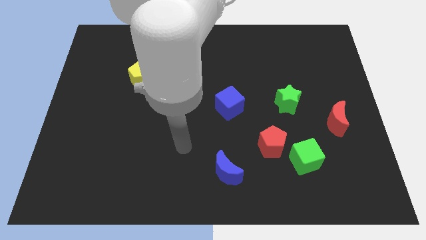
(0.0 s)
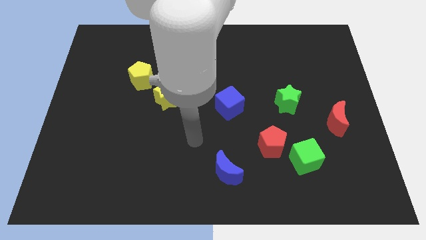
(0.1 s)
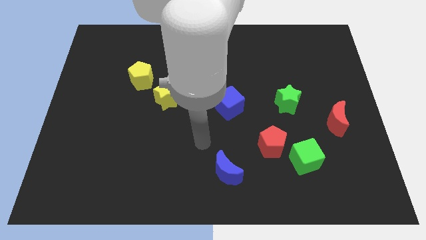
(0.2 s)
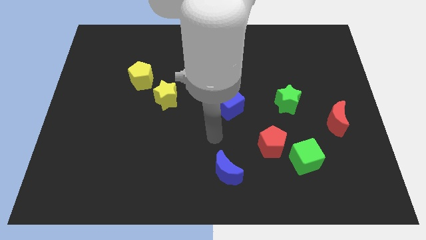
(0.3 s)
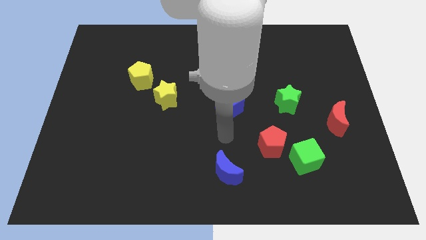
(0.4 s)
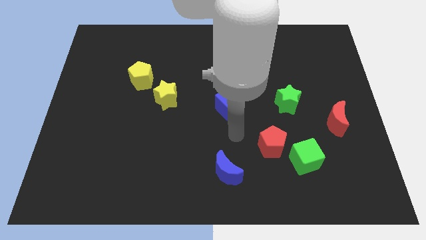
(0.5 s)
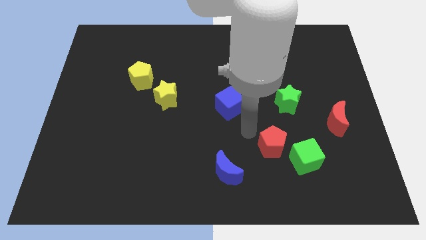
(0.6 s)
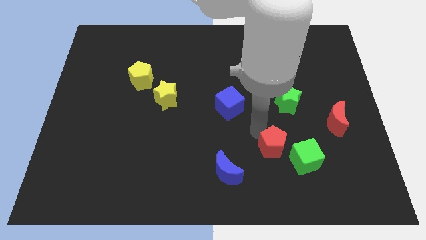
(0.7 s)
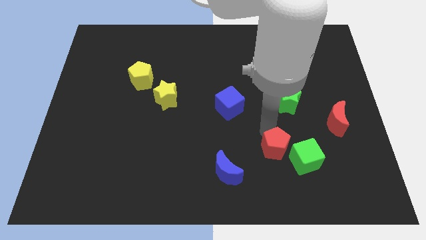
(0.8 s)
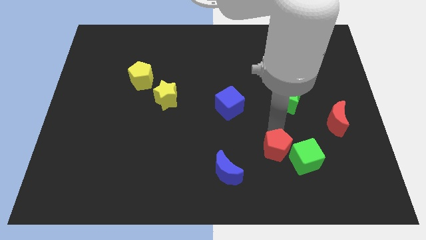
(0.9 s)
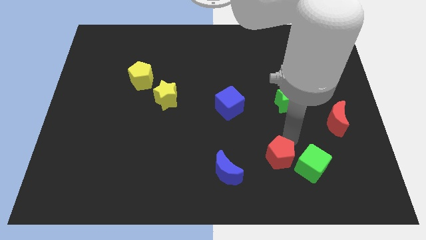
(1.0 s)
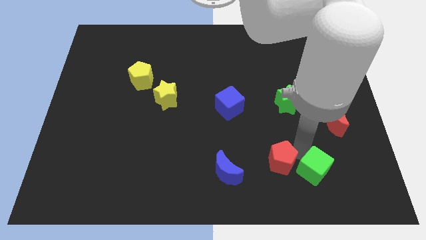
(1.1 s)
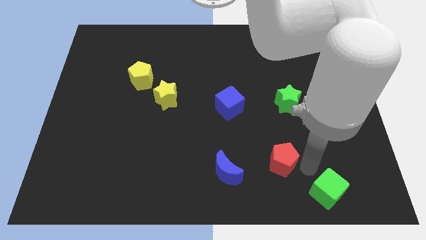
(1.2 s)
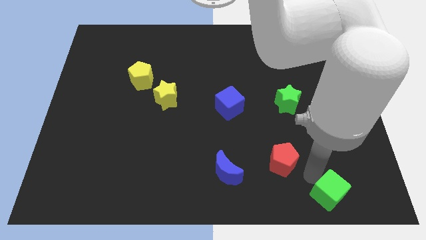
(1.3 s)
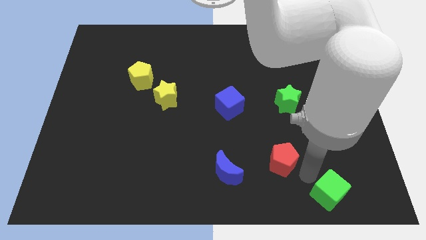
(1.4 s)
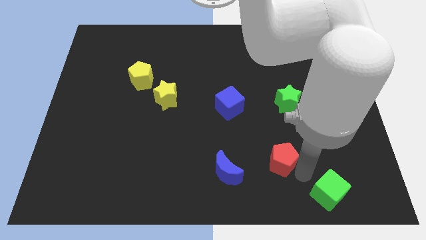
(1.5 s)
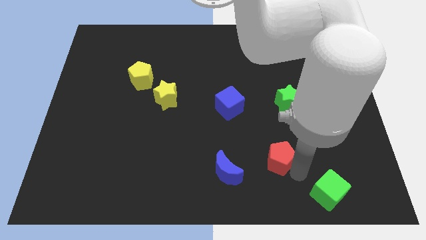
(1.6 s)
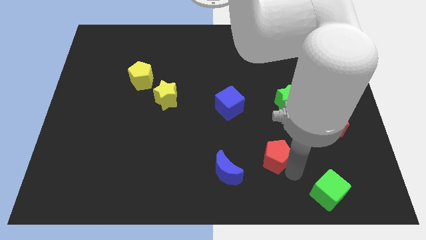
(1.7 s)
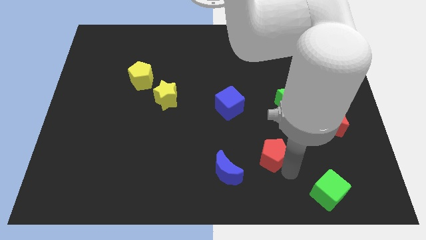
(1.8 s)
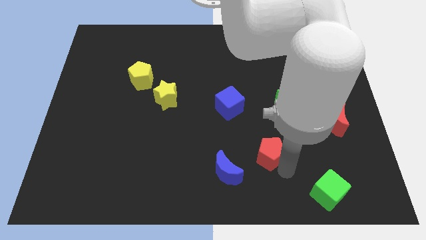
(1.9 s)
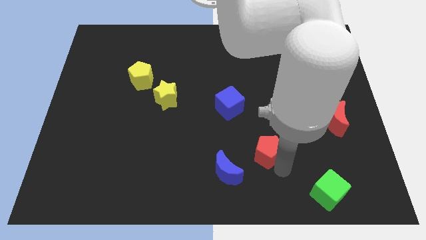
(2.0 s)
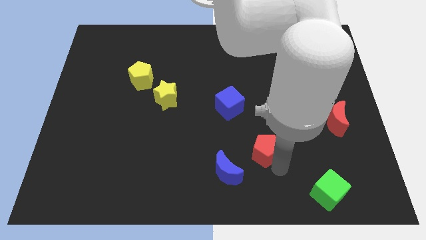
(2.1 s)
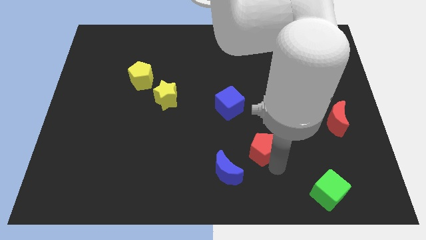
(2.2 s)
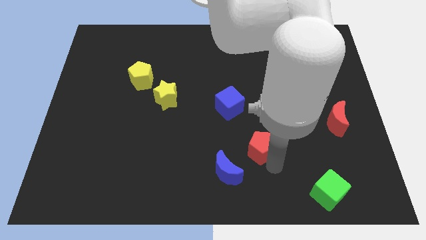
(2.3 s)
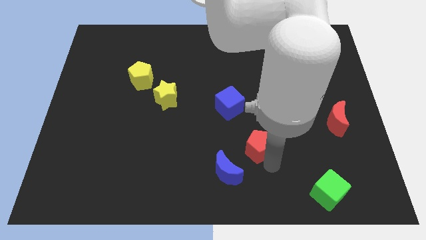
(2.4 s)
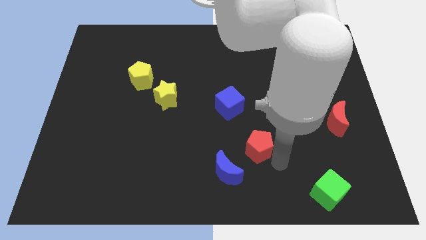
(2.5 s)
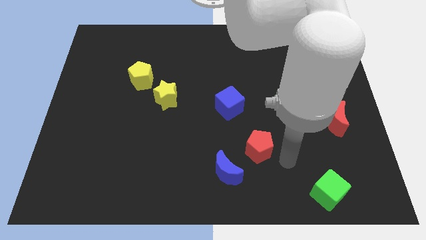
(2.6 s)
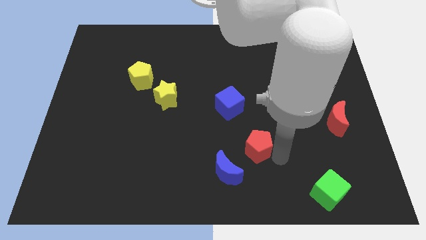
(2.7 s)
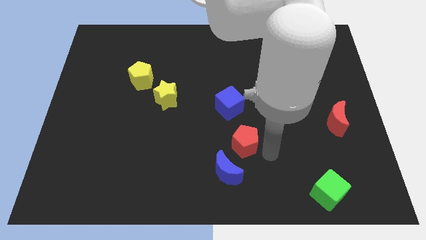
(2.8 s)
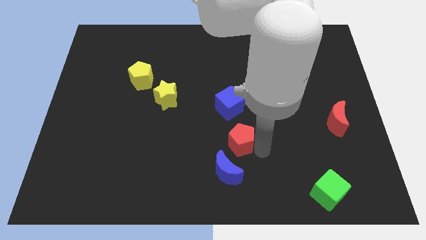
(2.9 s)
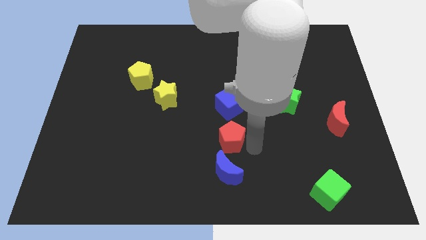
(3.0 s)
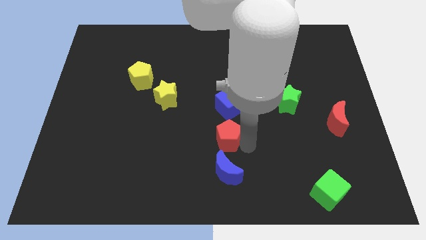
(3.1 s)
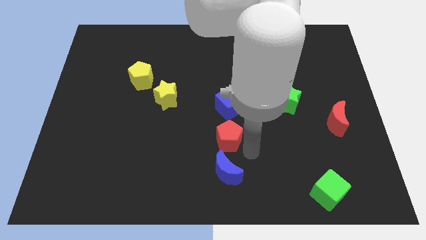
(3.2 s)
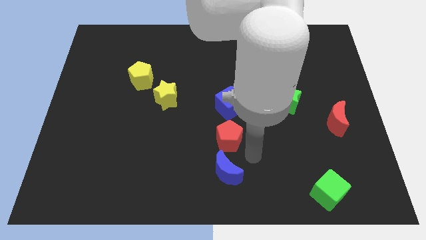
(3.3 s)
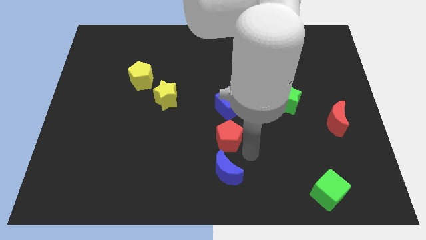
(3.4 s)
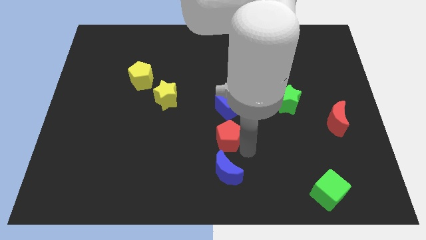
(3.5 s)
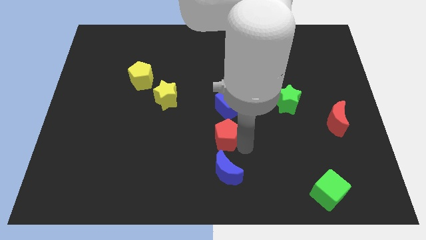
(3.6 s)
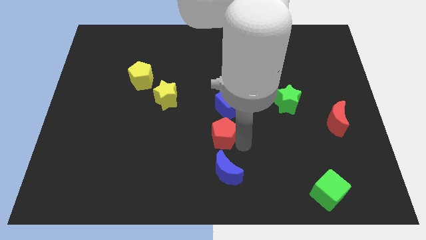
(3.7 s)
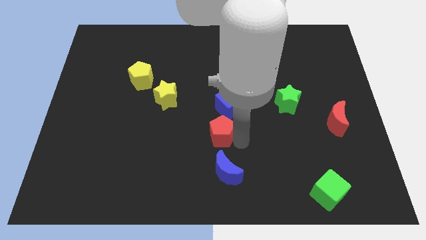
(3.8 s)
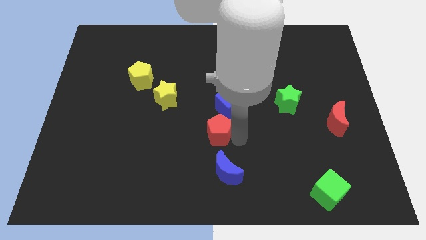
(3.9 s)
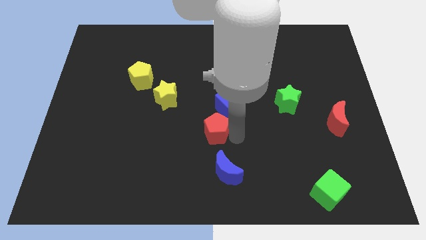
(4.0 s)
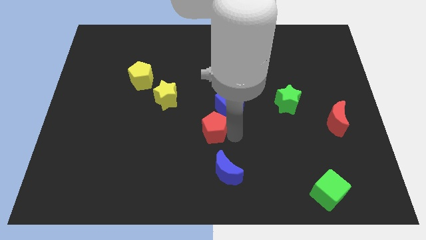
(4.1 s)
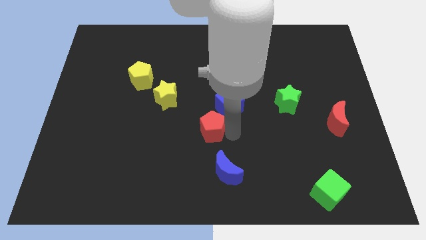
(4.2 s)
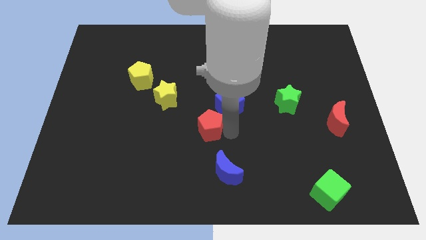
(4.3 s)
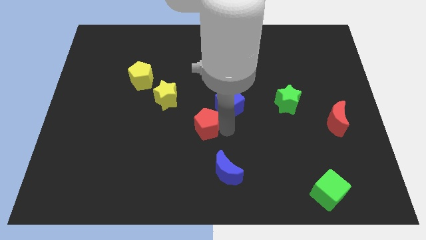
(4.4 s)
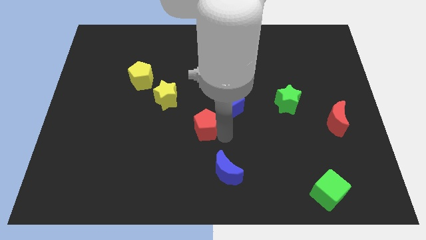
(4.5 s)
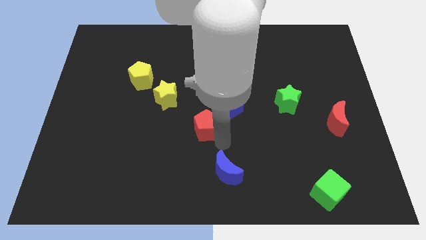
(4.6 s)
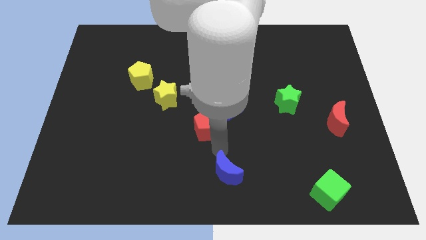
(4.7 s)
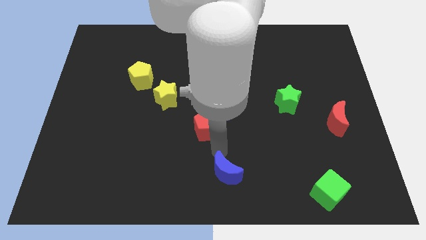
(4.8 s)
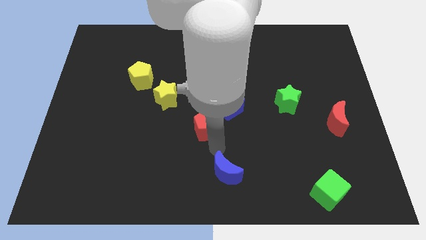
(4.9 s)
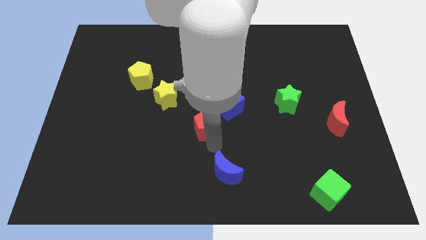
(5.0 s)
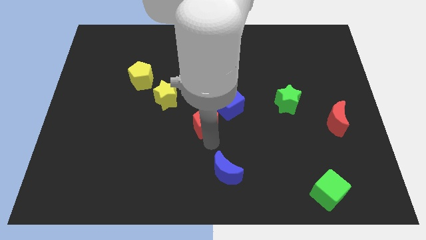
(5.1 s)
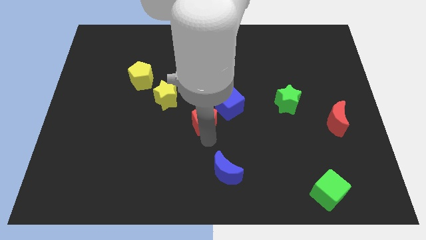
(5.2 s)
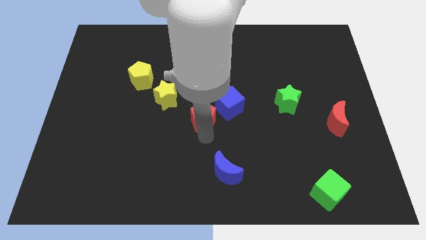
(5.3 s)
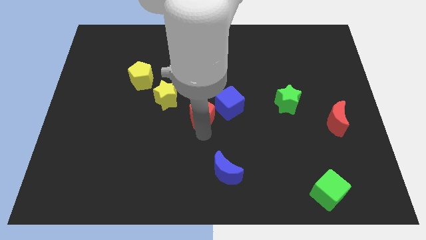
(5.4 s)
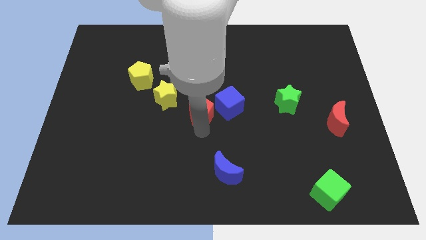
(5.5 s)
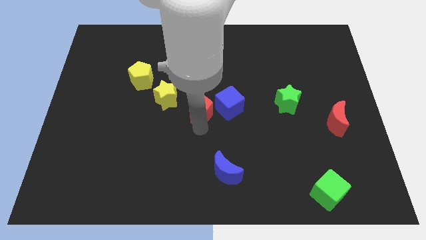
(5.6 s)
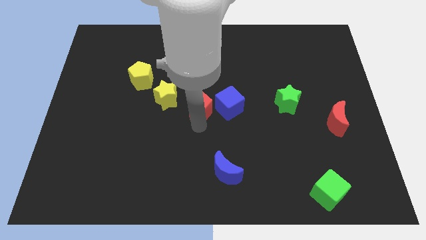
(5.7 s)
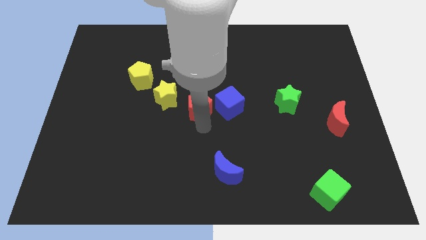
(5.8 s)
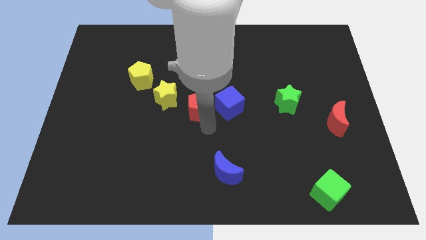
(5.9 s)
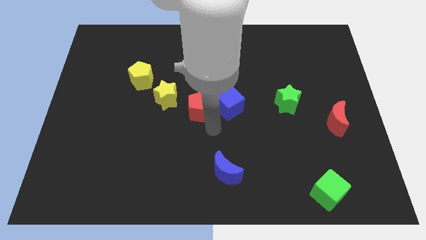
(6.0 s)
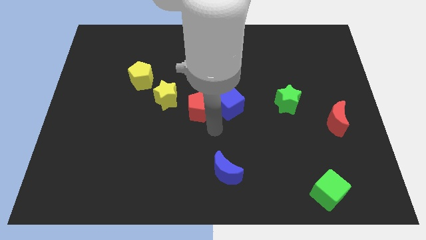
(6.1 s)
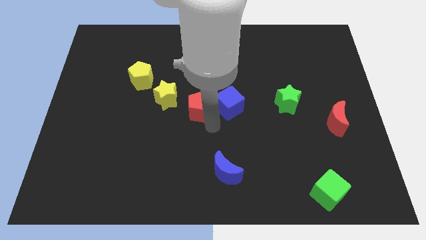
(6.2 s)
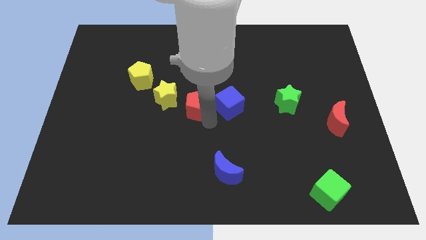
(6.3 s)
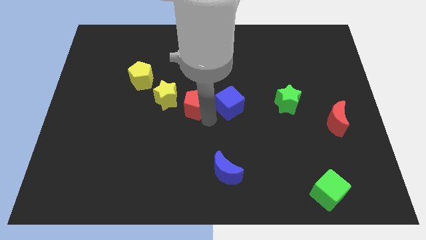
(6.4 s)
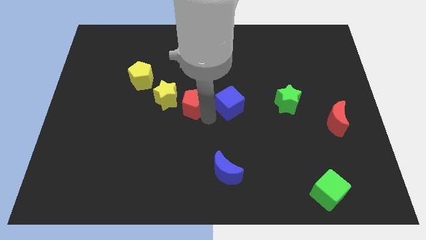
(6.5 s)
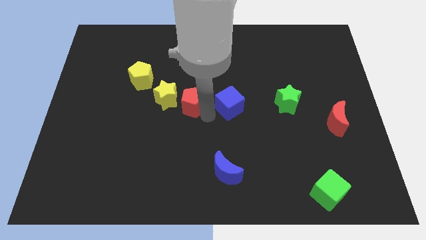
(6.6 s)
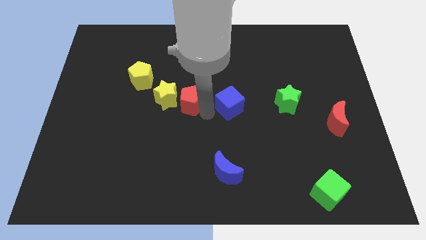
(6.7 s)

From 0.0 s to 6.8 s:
slide the red pentagon up and then left

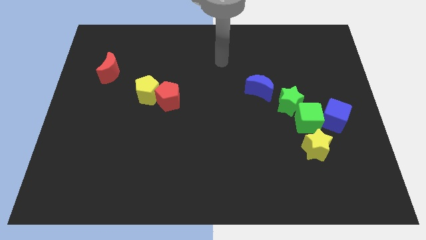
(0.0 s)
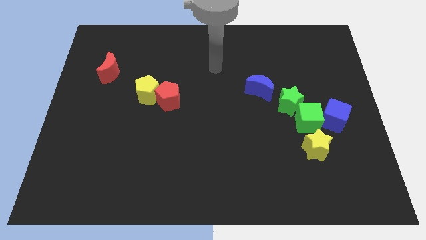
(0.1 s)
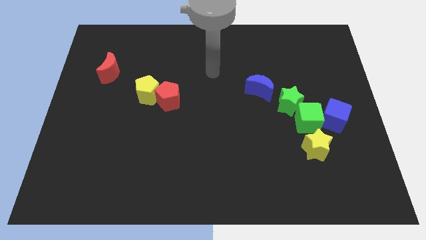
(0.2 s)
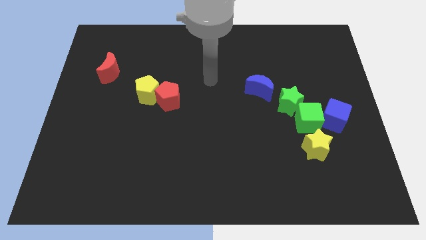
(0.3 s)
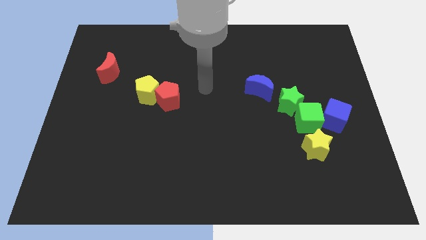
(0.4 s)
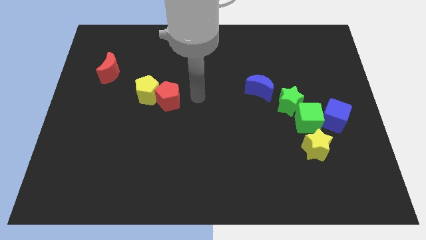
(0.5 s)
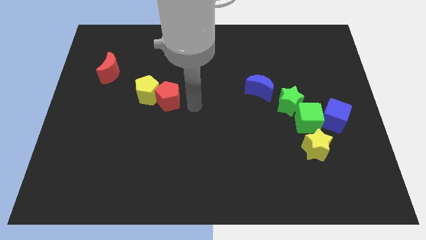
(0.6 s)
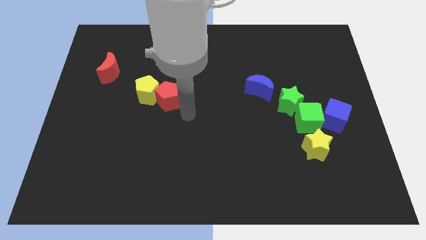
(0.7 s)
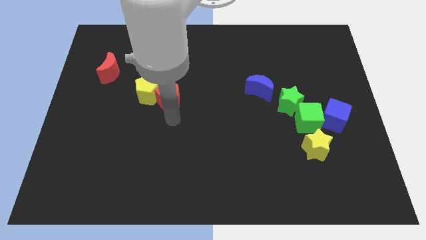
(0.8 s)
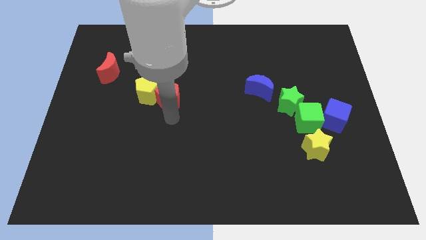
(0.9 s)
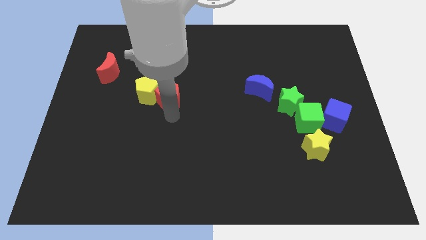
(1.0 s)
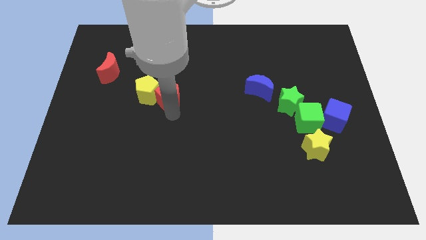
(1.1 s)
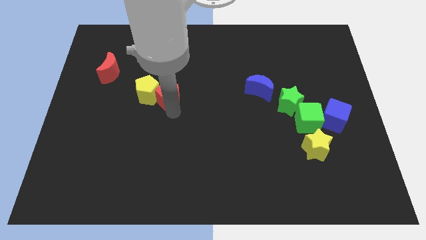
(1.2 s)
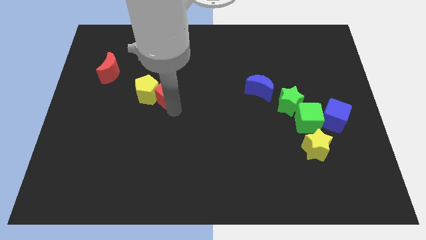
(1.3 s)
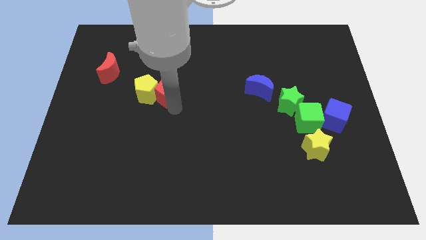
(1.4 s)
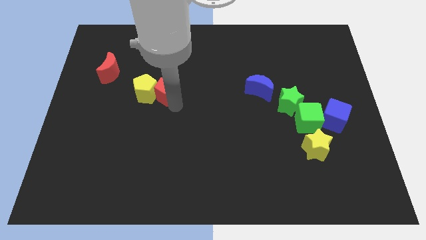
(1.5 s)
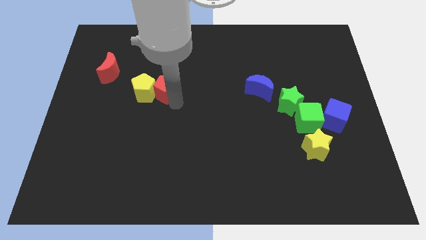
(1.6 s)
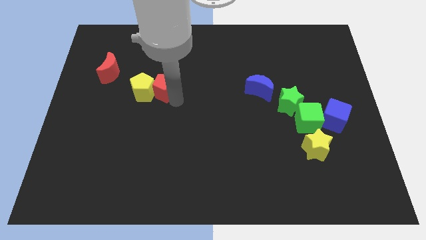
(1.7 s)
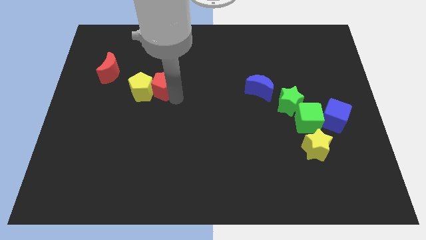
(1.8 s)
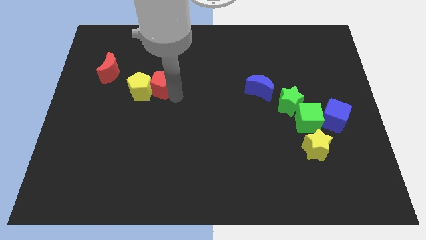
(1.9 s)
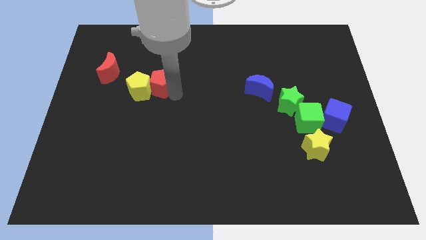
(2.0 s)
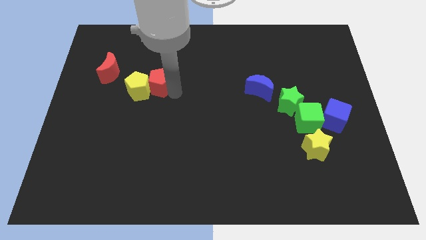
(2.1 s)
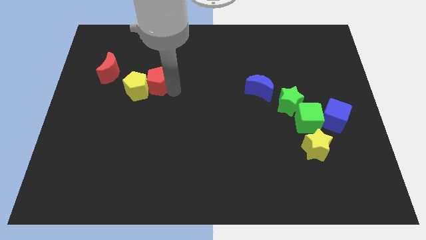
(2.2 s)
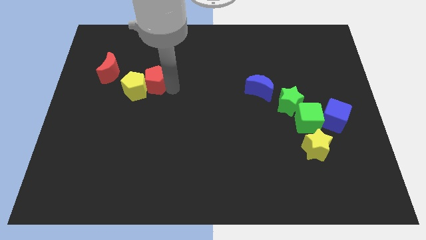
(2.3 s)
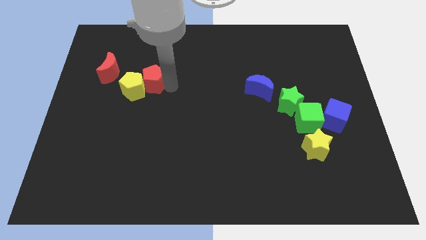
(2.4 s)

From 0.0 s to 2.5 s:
push the red pentagon a little bit diagonally upwards and left
